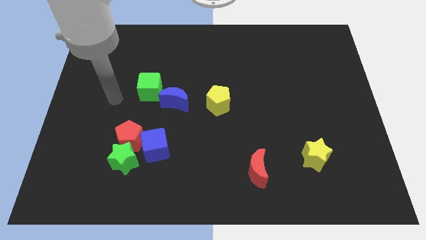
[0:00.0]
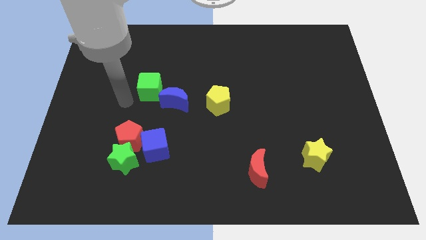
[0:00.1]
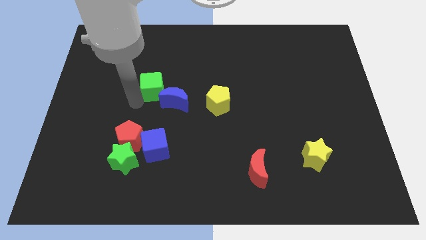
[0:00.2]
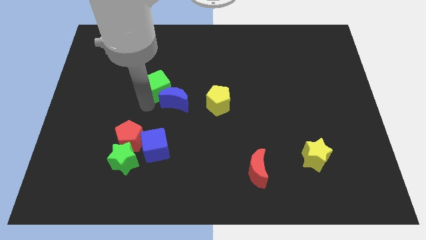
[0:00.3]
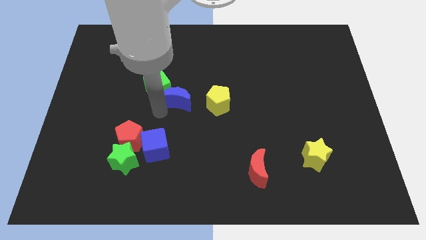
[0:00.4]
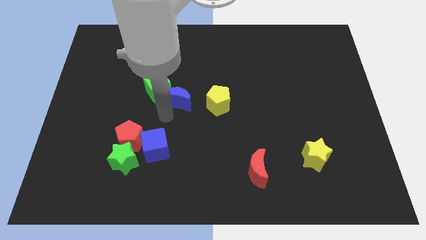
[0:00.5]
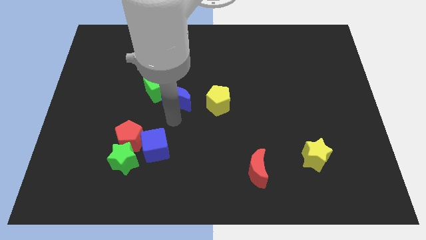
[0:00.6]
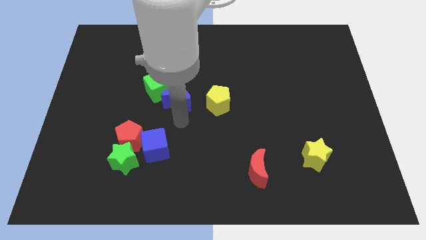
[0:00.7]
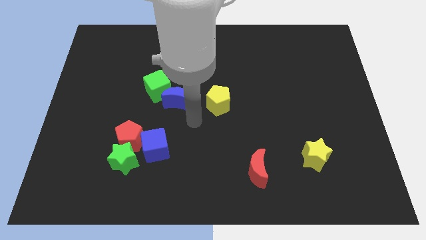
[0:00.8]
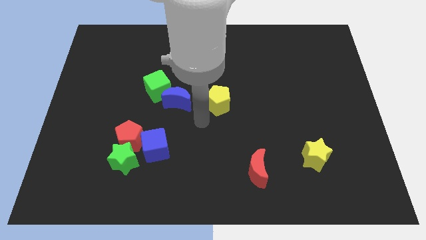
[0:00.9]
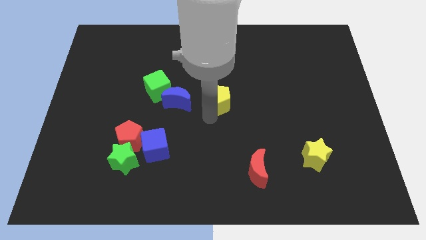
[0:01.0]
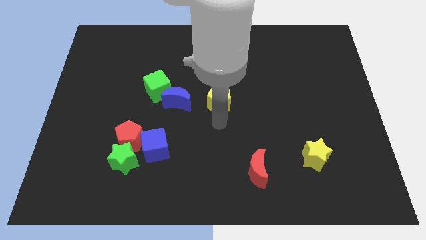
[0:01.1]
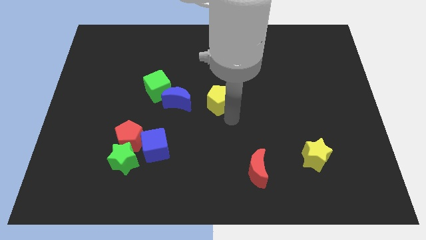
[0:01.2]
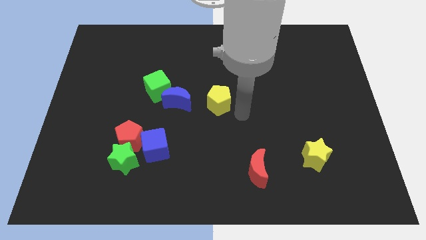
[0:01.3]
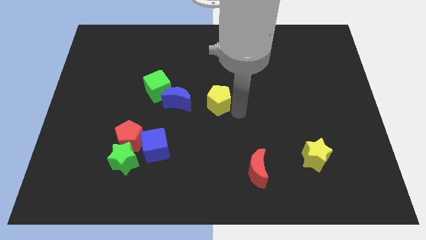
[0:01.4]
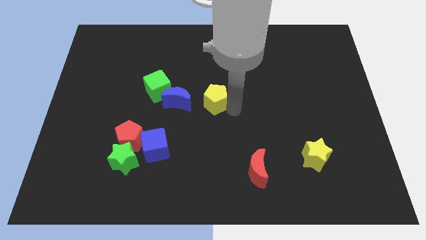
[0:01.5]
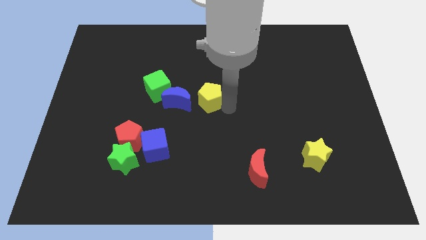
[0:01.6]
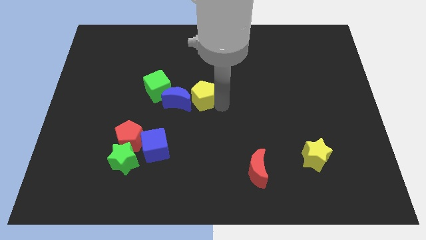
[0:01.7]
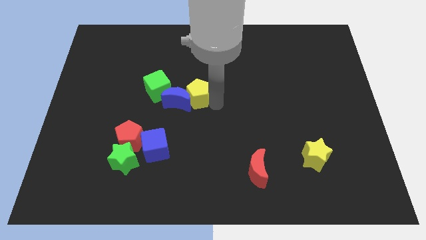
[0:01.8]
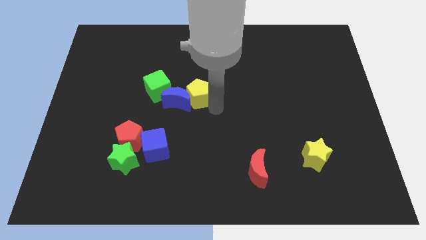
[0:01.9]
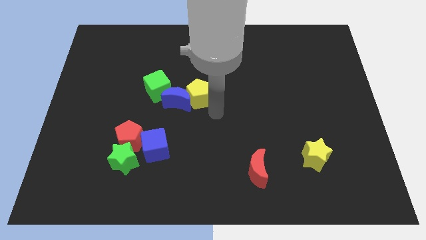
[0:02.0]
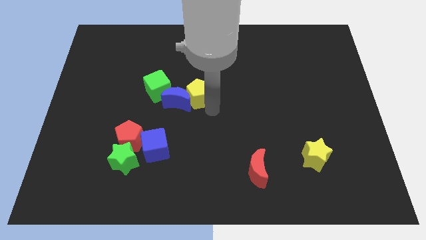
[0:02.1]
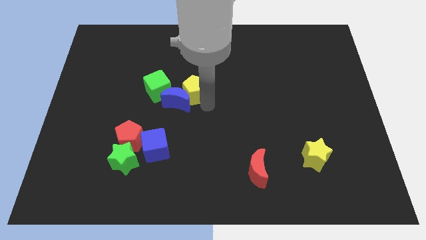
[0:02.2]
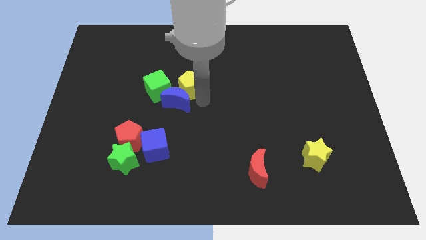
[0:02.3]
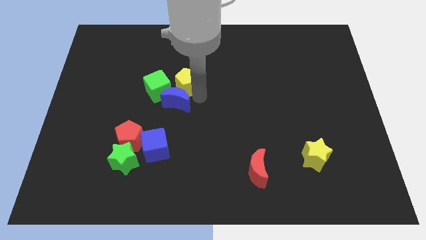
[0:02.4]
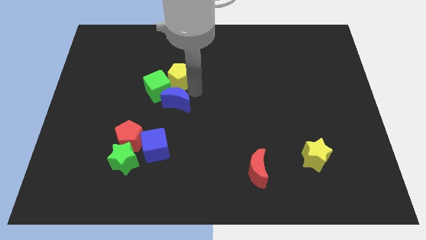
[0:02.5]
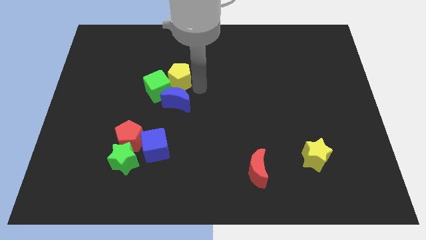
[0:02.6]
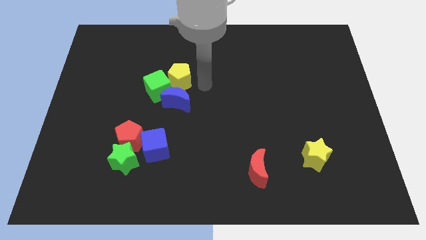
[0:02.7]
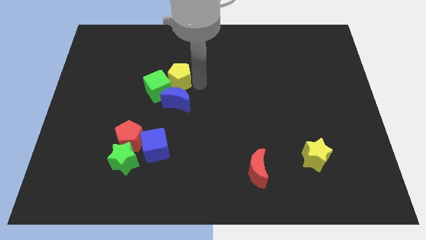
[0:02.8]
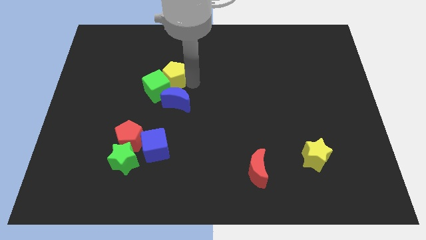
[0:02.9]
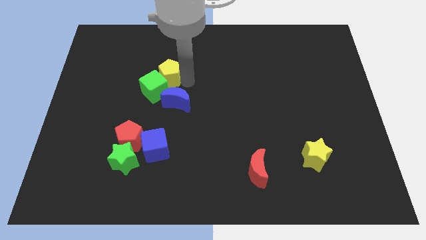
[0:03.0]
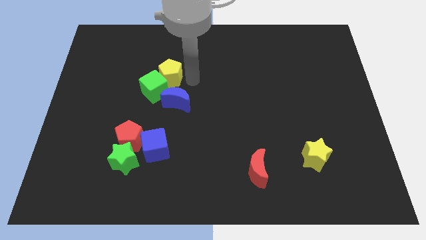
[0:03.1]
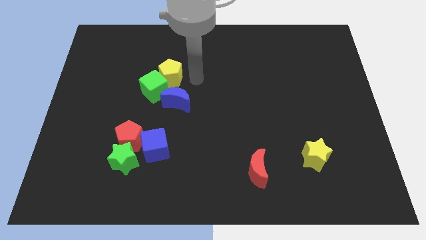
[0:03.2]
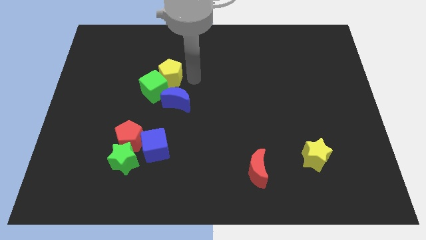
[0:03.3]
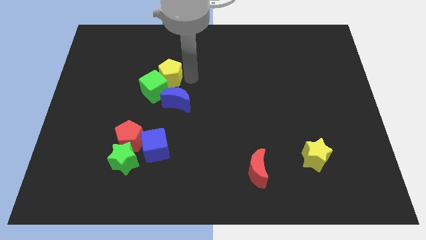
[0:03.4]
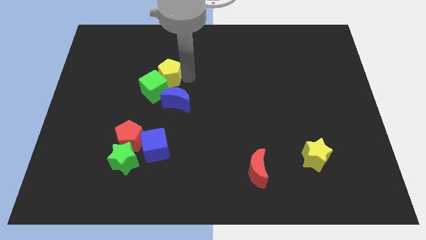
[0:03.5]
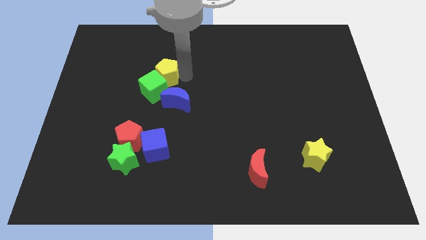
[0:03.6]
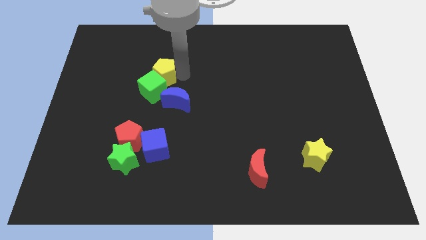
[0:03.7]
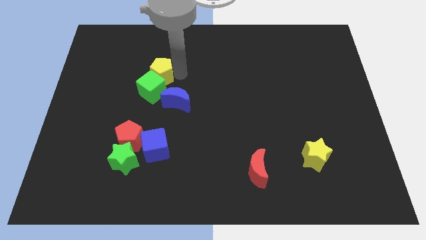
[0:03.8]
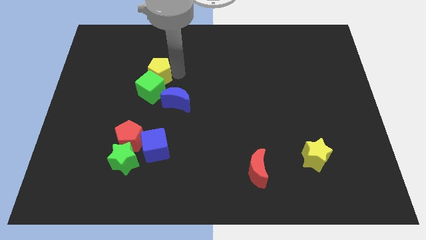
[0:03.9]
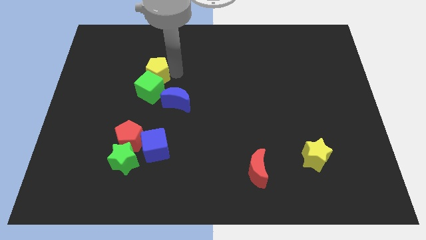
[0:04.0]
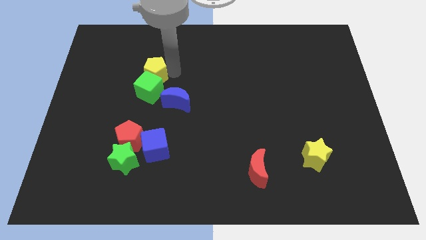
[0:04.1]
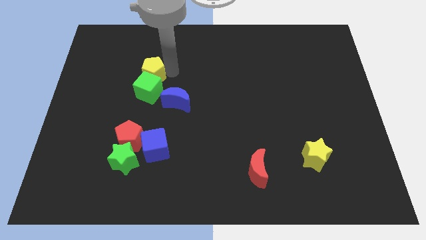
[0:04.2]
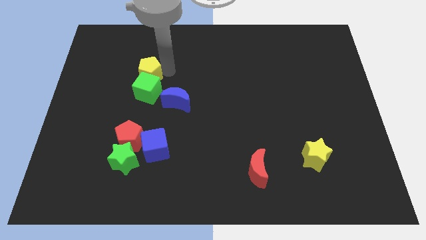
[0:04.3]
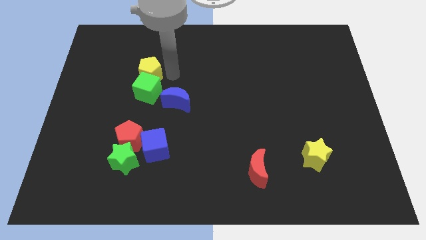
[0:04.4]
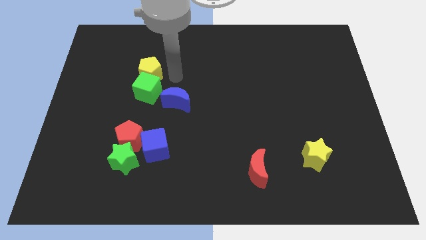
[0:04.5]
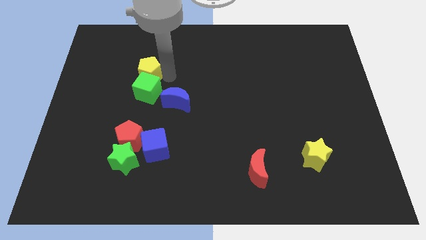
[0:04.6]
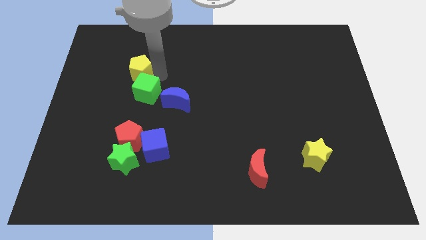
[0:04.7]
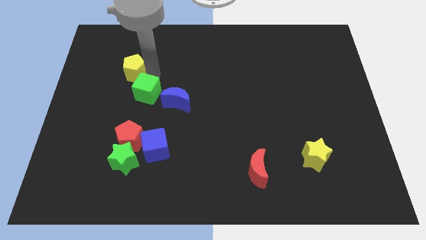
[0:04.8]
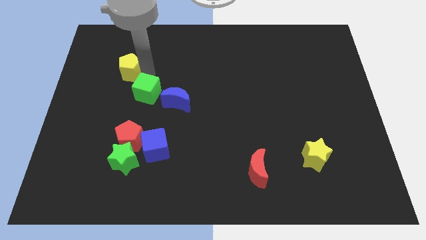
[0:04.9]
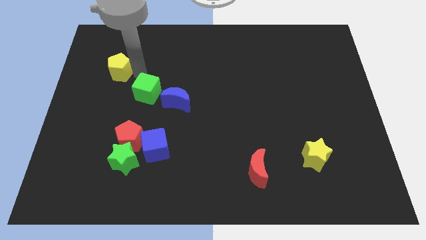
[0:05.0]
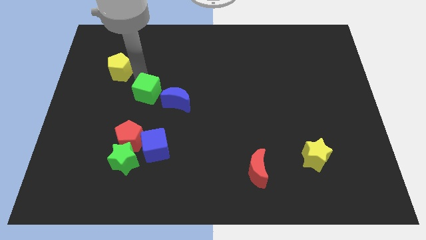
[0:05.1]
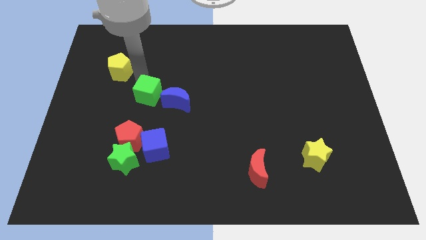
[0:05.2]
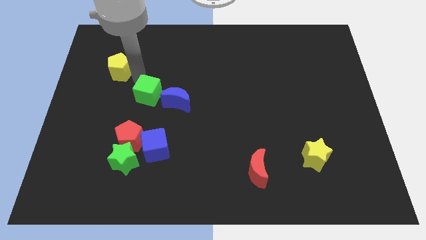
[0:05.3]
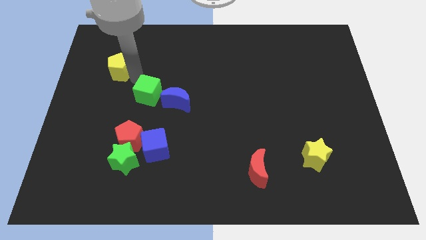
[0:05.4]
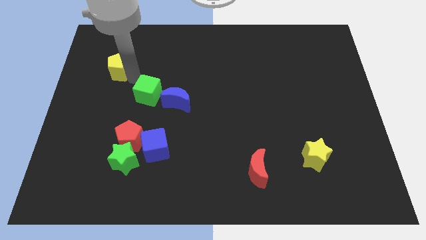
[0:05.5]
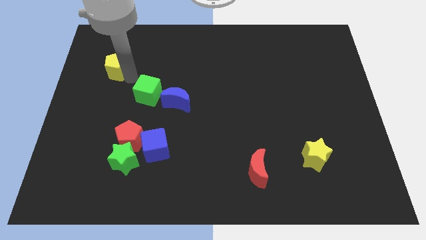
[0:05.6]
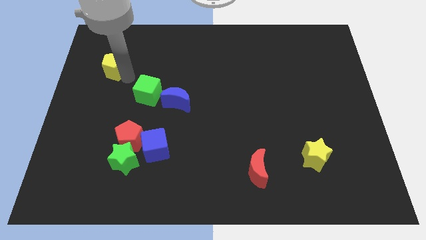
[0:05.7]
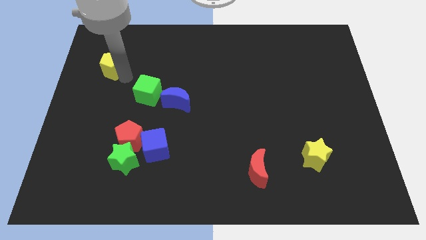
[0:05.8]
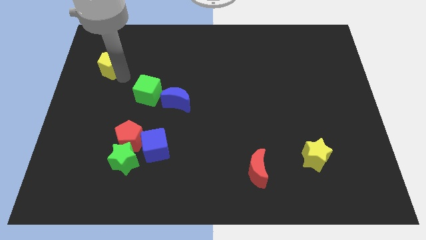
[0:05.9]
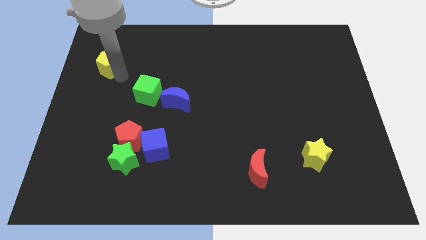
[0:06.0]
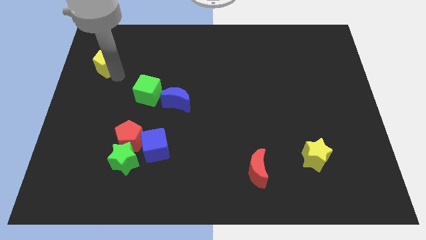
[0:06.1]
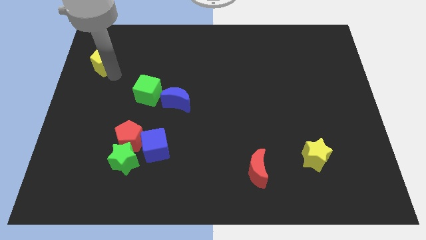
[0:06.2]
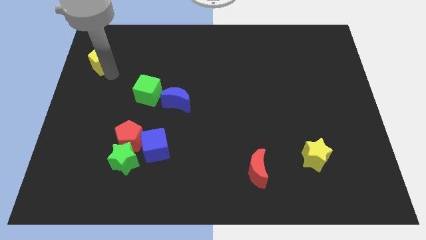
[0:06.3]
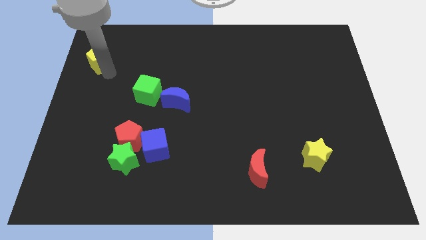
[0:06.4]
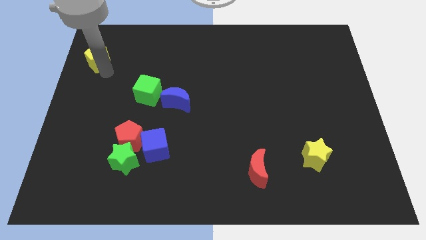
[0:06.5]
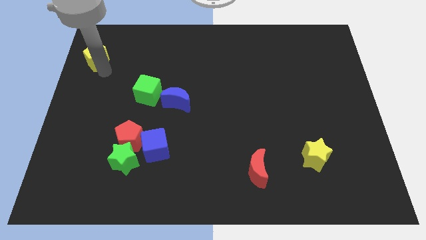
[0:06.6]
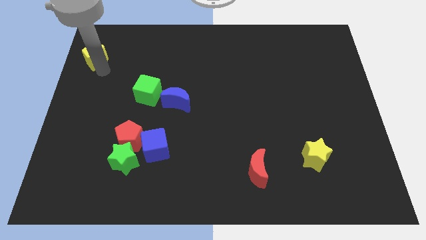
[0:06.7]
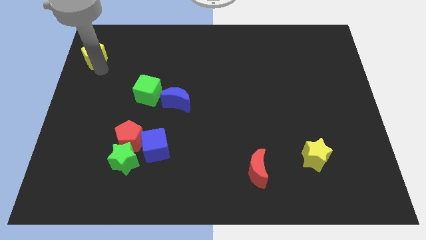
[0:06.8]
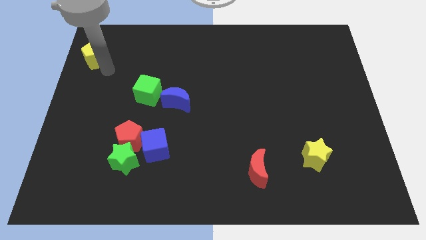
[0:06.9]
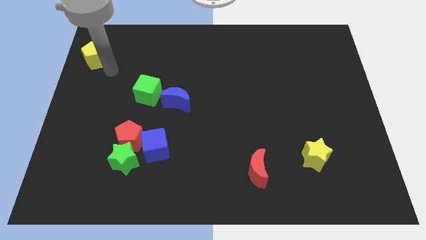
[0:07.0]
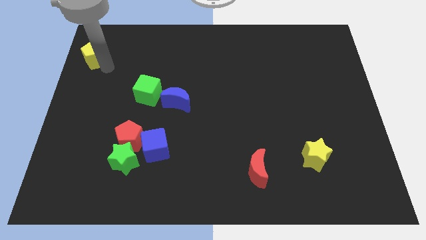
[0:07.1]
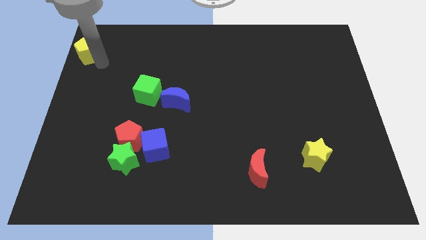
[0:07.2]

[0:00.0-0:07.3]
slide the yellow pentagon to the top left corner
